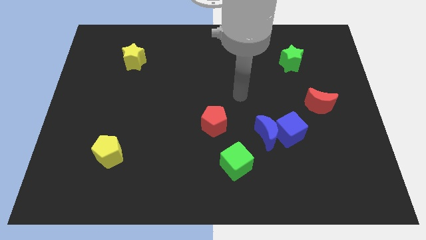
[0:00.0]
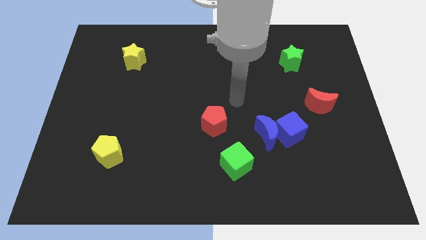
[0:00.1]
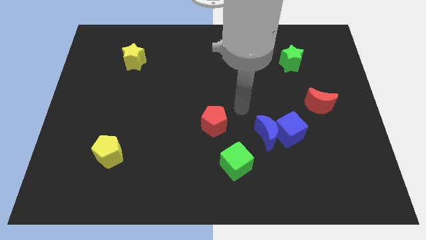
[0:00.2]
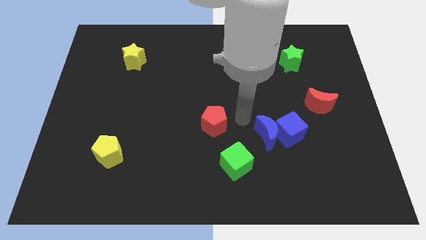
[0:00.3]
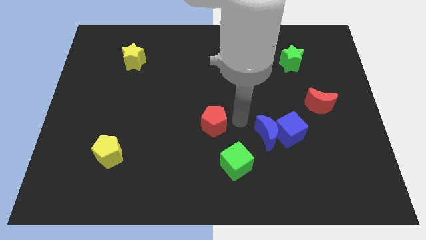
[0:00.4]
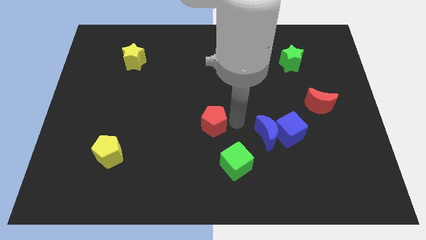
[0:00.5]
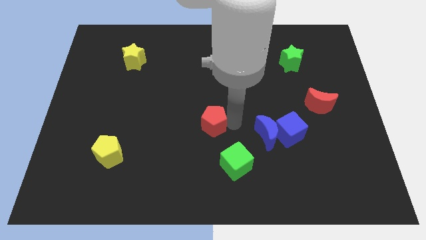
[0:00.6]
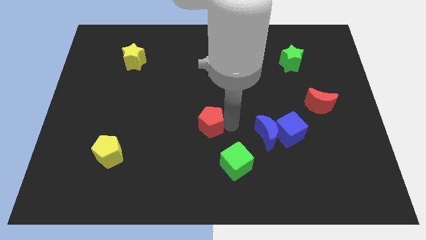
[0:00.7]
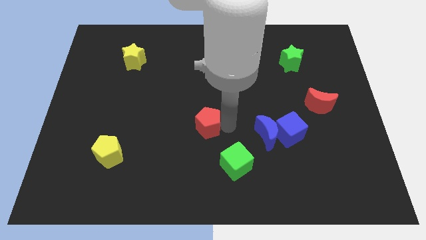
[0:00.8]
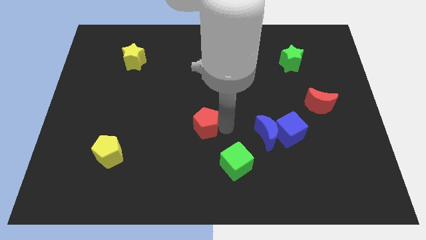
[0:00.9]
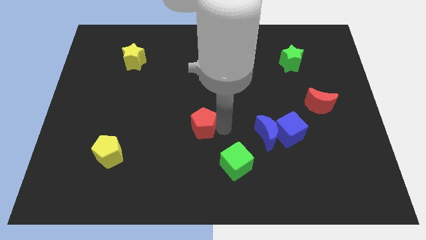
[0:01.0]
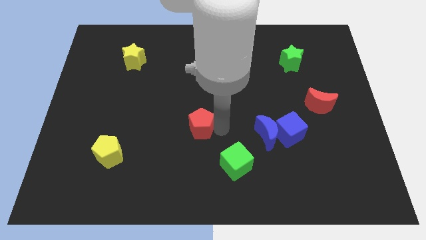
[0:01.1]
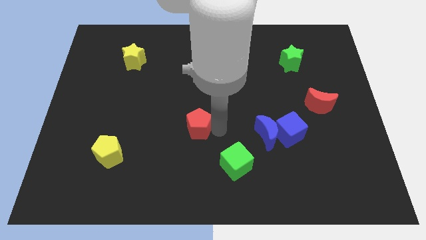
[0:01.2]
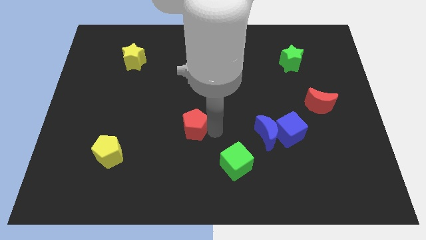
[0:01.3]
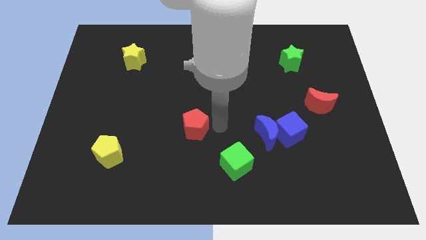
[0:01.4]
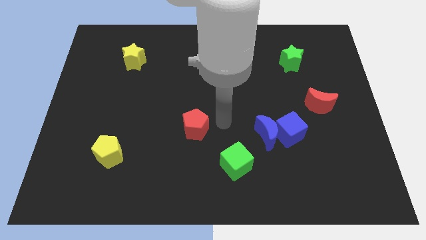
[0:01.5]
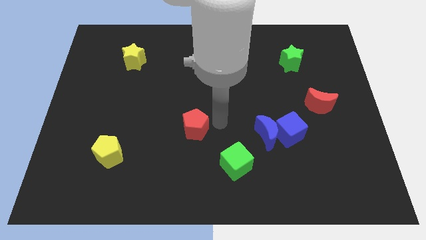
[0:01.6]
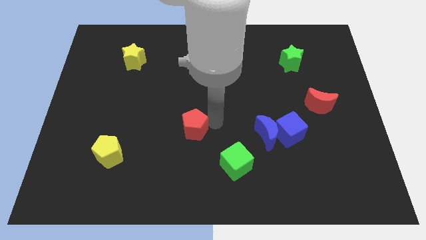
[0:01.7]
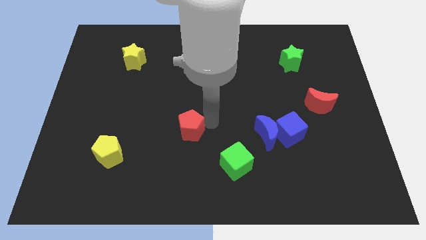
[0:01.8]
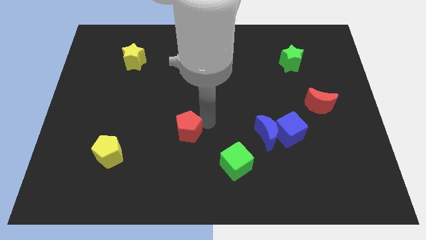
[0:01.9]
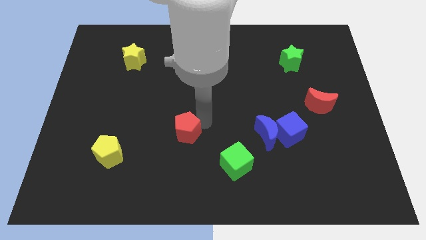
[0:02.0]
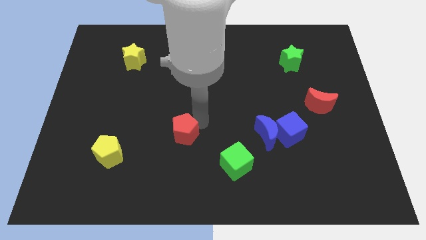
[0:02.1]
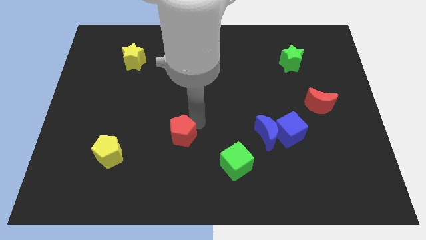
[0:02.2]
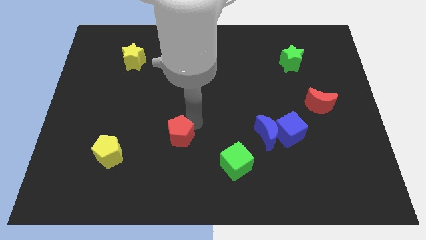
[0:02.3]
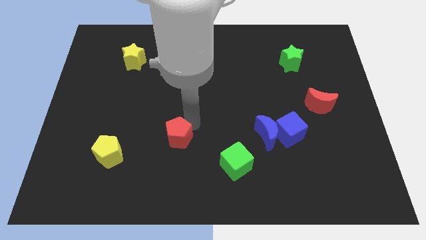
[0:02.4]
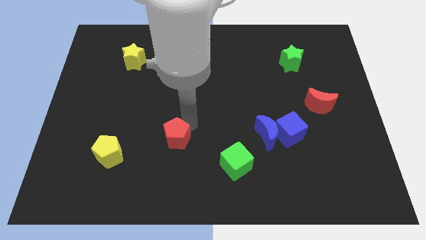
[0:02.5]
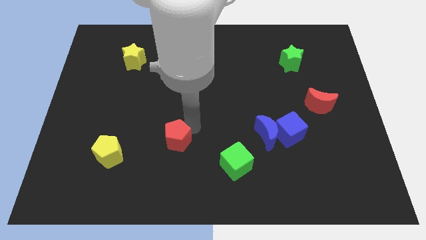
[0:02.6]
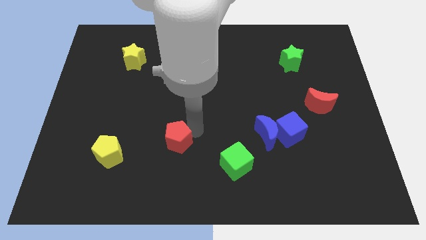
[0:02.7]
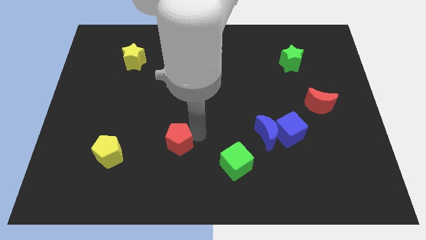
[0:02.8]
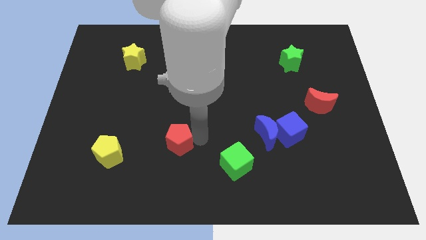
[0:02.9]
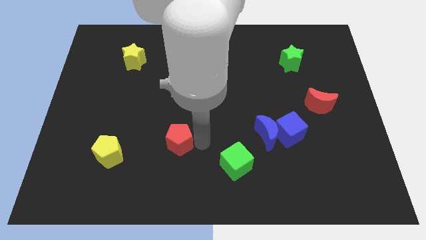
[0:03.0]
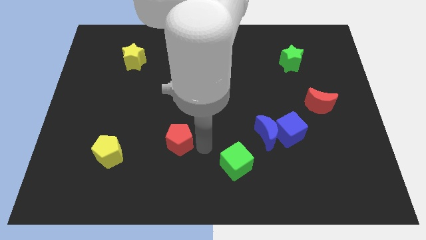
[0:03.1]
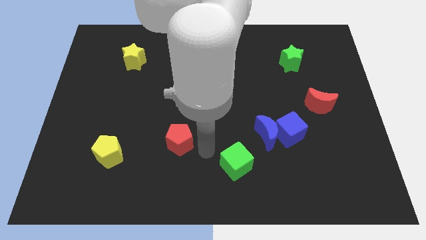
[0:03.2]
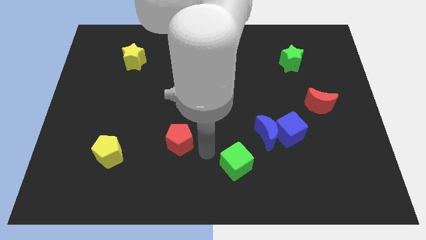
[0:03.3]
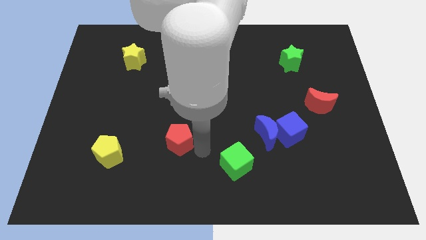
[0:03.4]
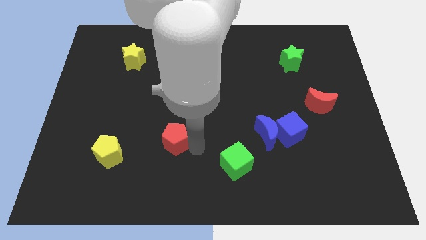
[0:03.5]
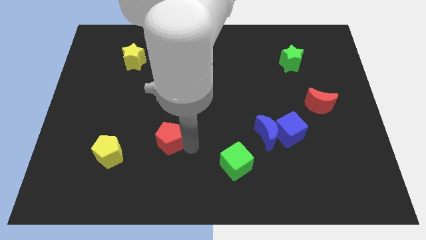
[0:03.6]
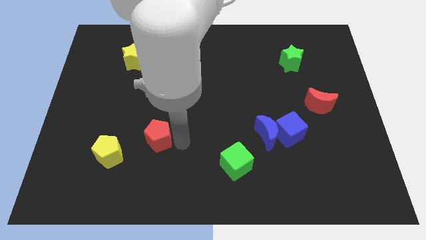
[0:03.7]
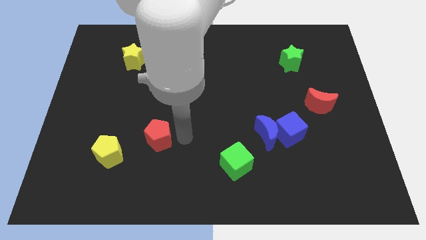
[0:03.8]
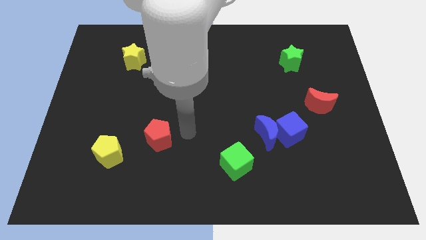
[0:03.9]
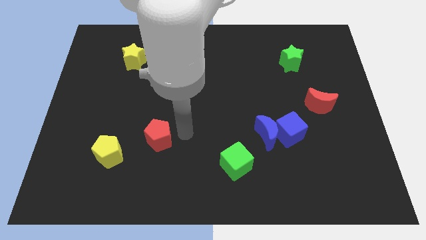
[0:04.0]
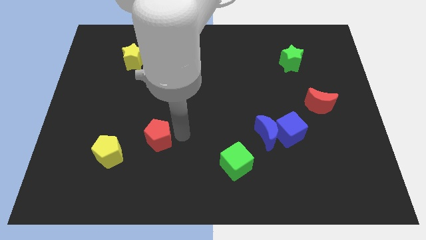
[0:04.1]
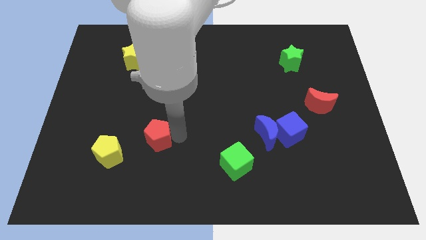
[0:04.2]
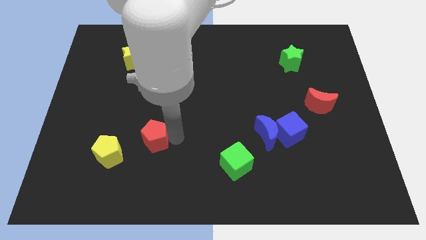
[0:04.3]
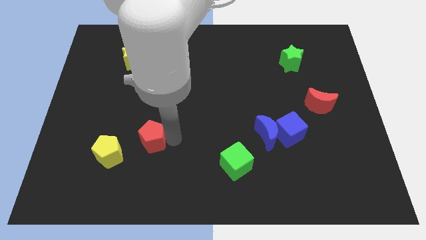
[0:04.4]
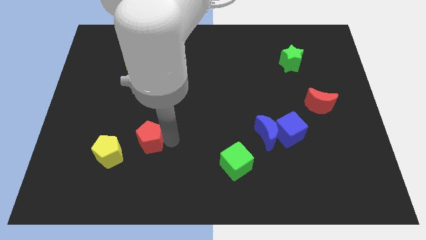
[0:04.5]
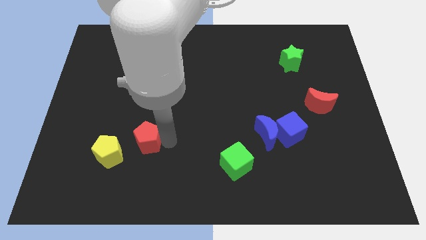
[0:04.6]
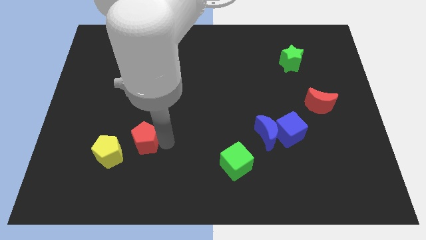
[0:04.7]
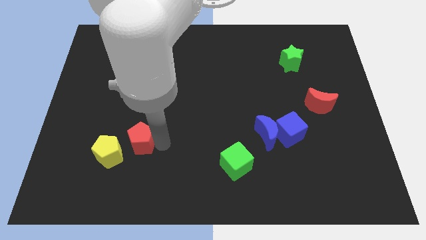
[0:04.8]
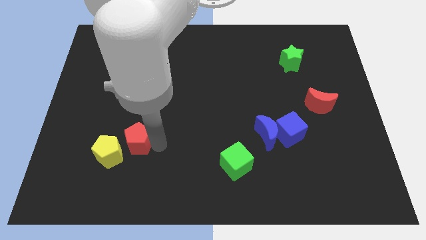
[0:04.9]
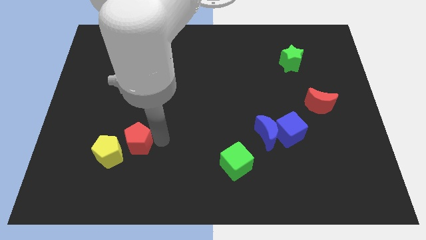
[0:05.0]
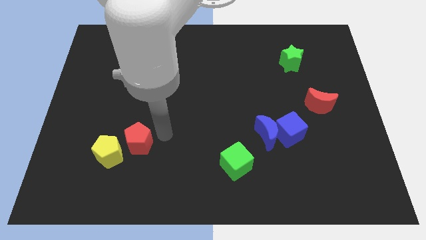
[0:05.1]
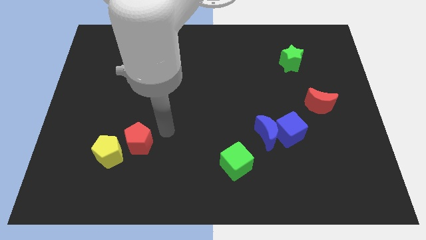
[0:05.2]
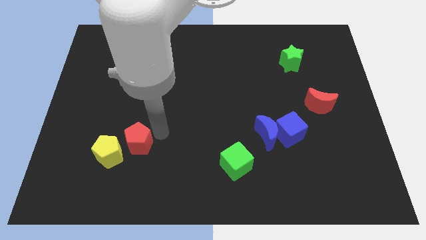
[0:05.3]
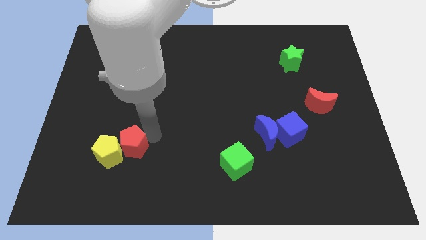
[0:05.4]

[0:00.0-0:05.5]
slide the red pentagon towards the yellow pentagon

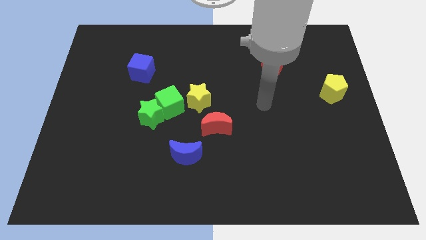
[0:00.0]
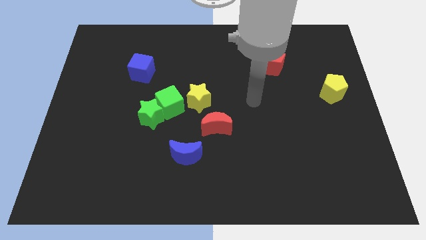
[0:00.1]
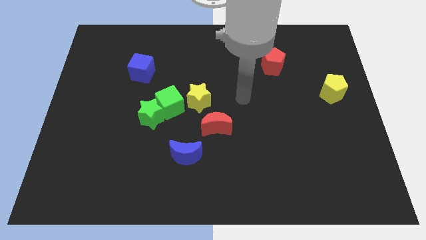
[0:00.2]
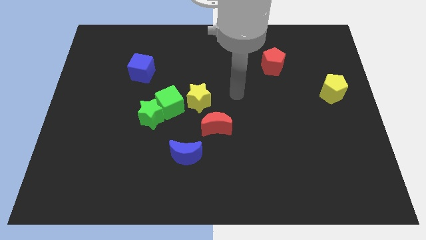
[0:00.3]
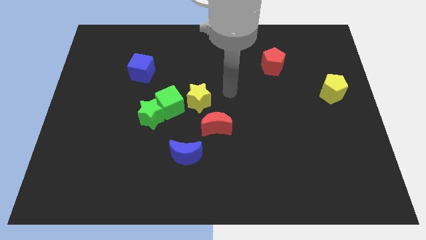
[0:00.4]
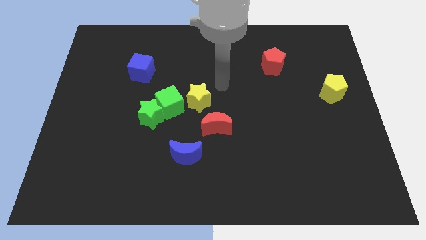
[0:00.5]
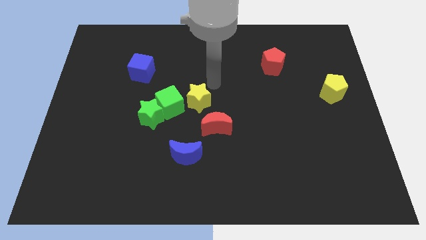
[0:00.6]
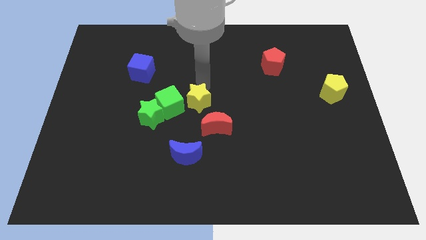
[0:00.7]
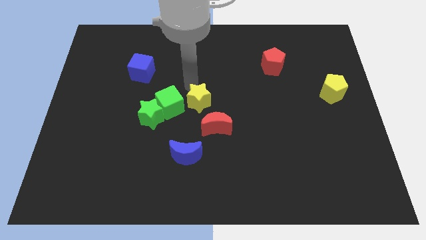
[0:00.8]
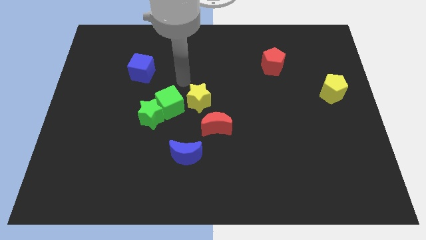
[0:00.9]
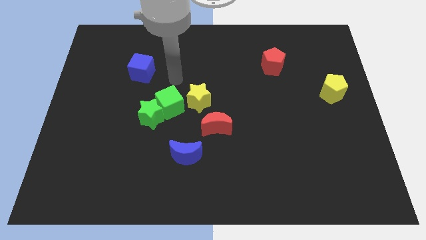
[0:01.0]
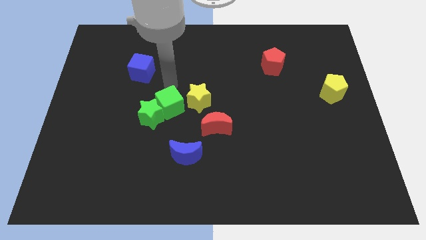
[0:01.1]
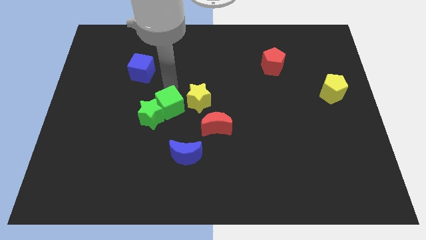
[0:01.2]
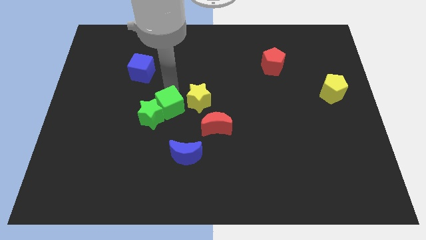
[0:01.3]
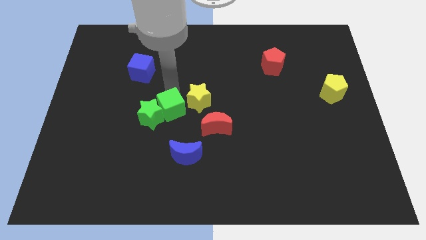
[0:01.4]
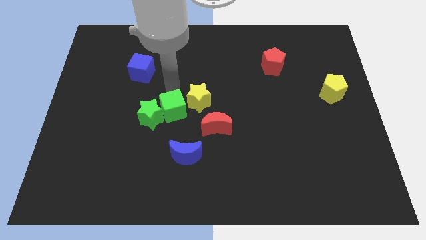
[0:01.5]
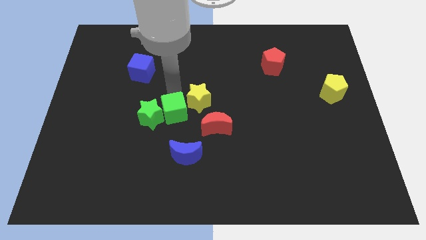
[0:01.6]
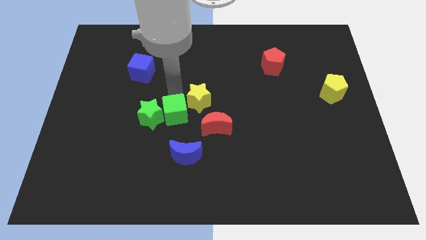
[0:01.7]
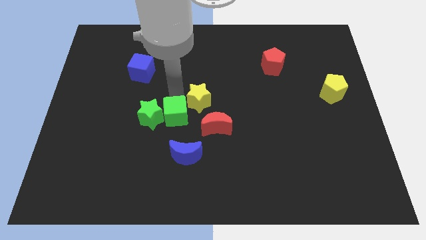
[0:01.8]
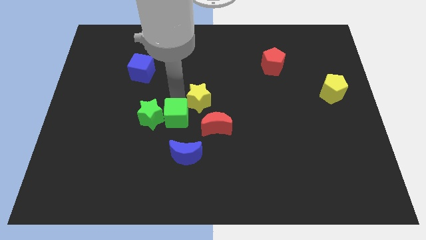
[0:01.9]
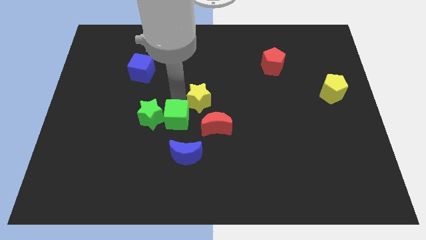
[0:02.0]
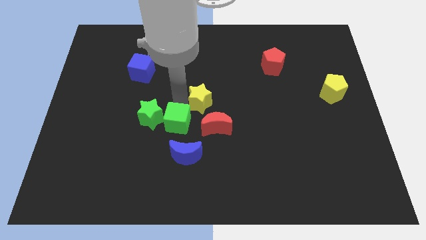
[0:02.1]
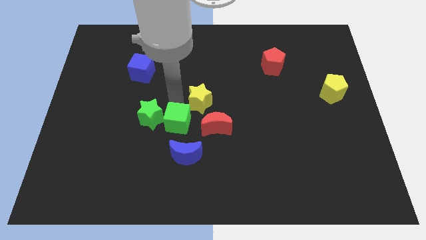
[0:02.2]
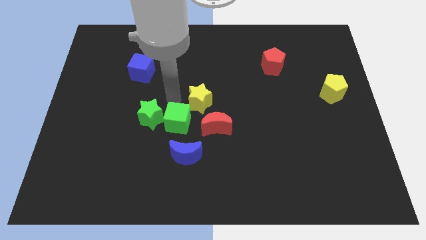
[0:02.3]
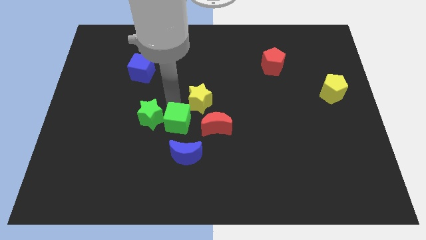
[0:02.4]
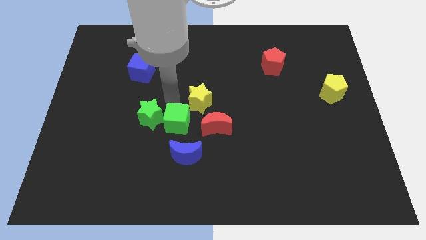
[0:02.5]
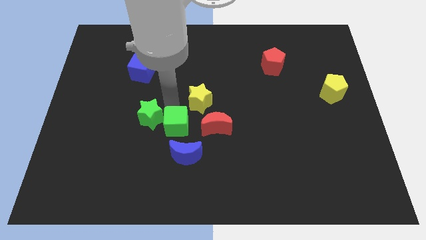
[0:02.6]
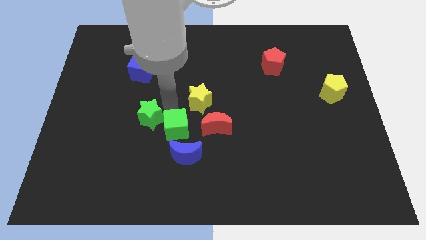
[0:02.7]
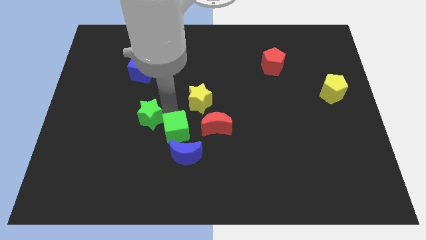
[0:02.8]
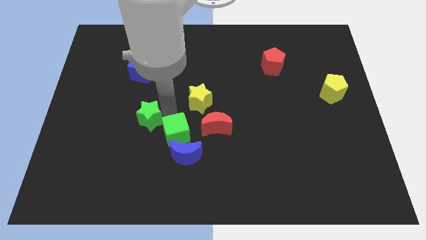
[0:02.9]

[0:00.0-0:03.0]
slide the green cube close to the blue moon
